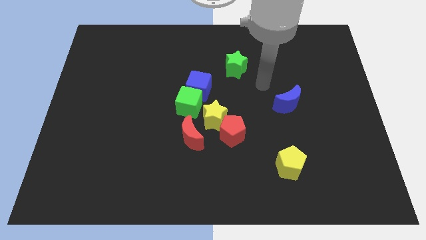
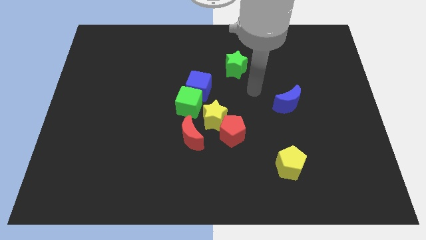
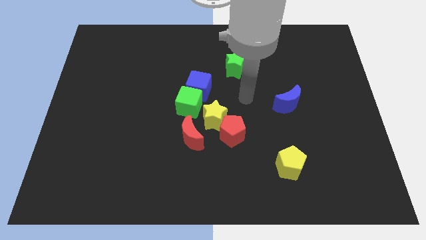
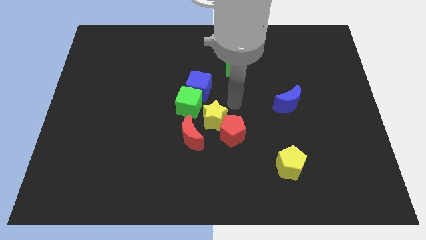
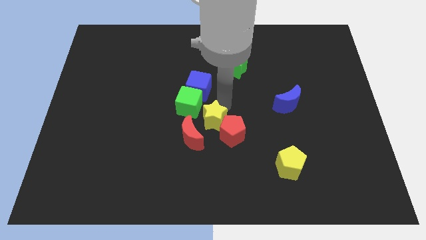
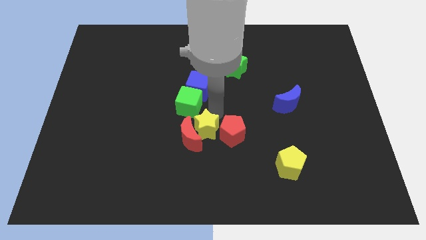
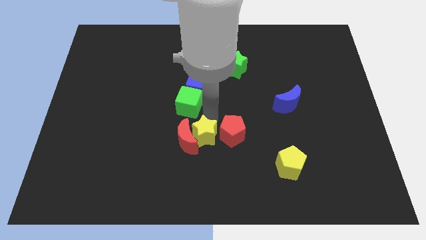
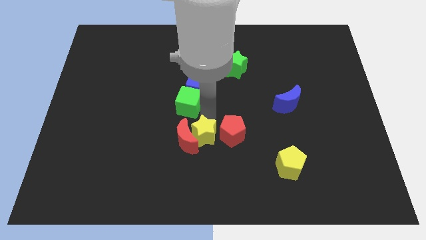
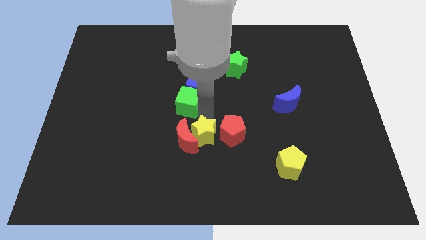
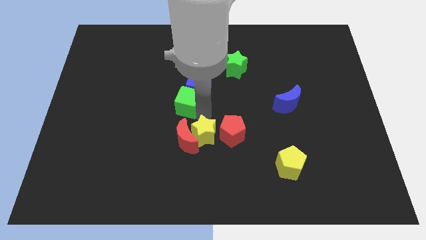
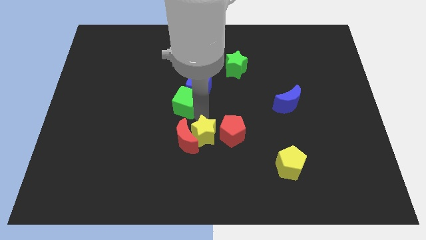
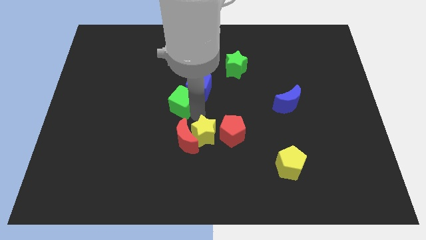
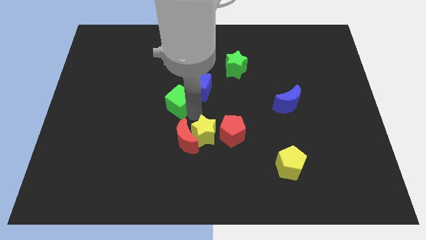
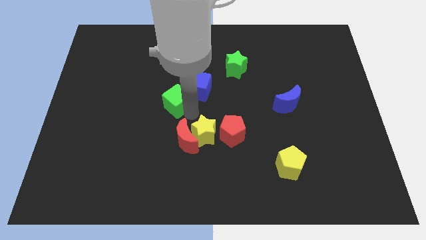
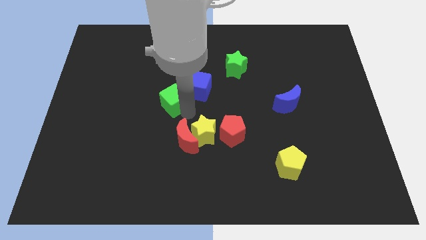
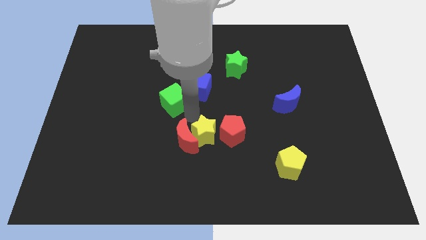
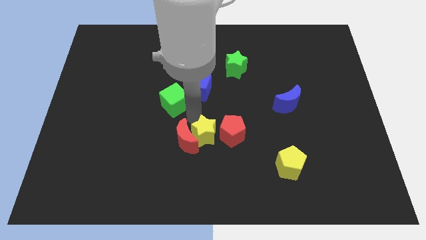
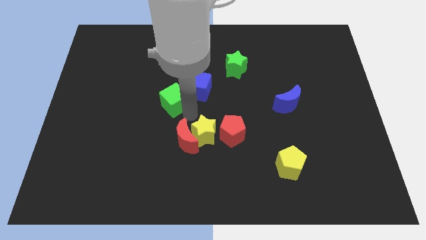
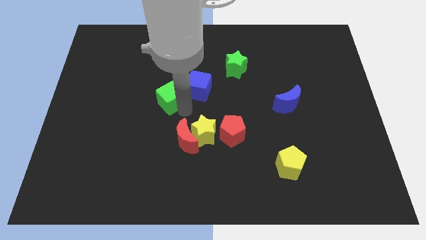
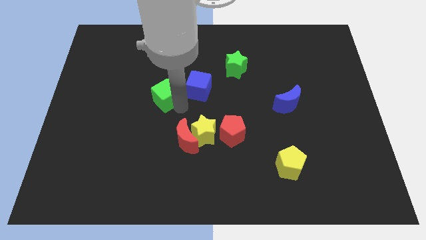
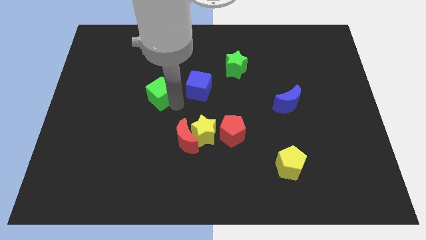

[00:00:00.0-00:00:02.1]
separate the green cube from the blue cube, yellow star, and red moon

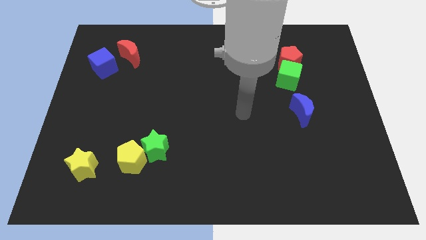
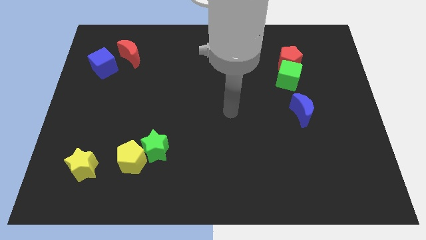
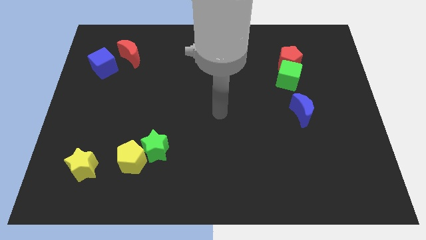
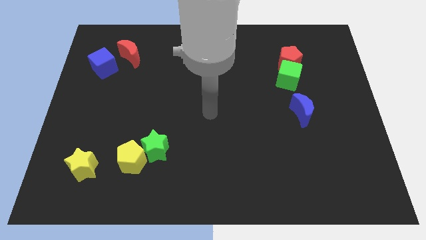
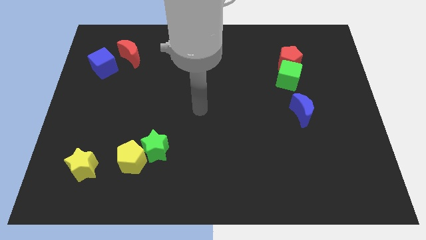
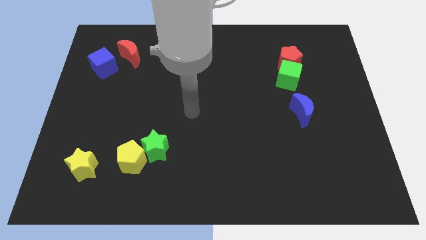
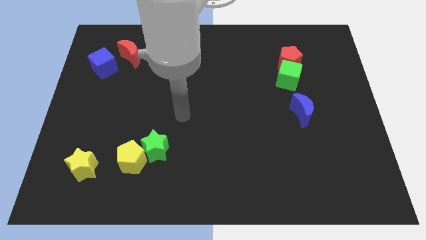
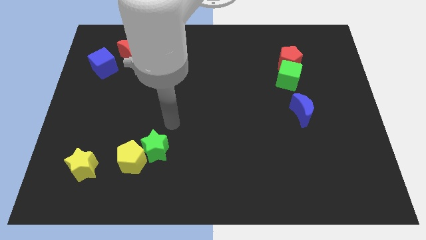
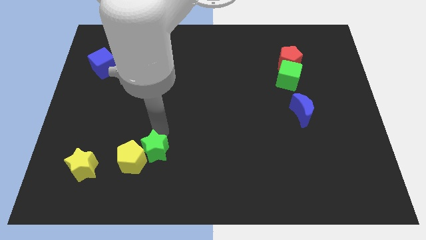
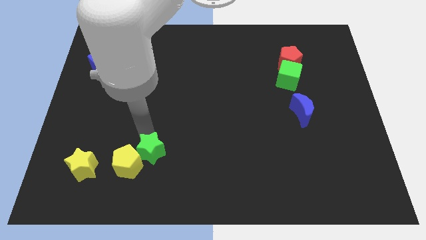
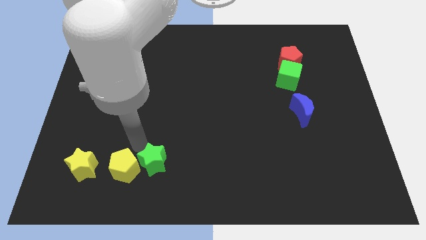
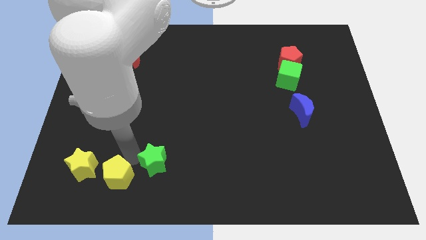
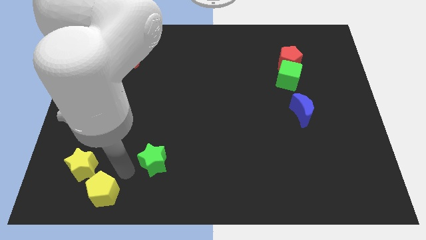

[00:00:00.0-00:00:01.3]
move the green star away from the yellow pentagon

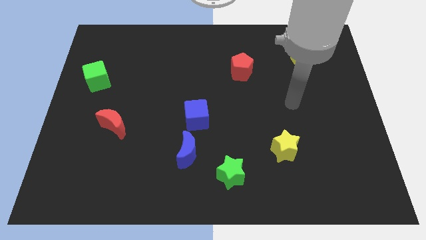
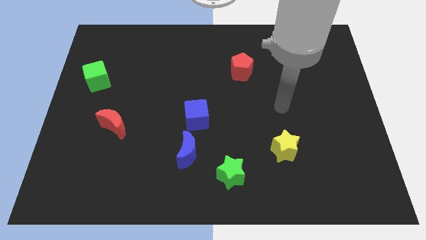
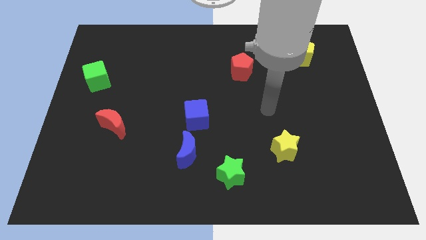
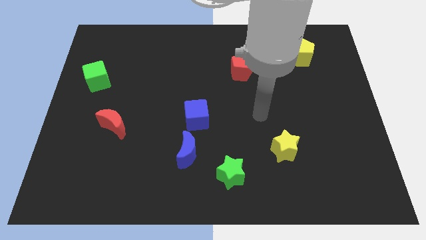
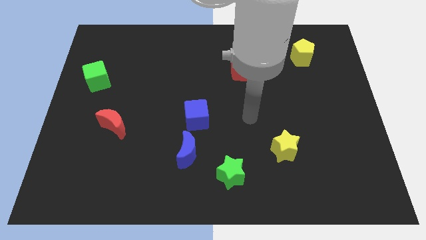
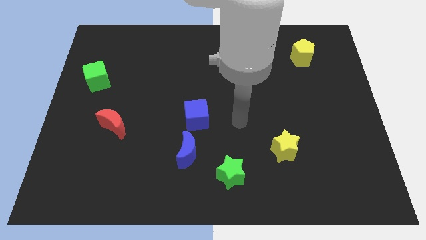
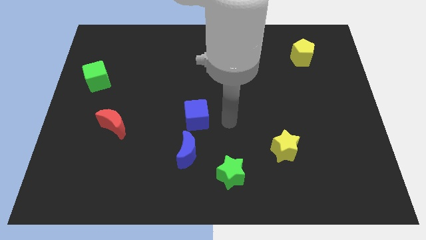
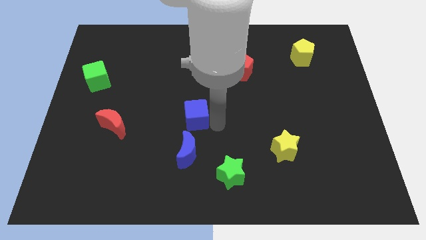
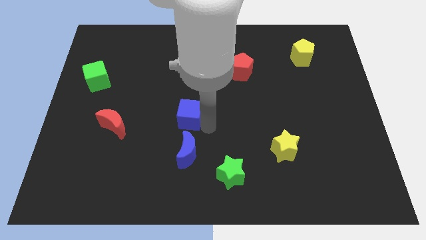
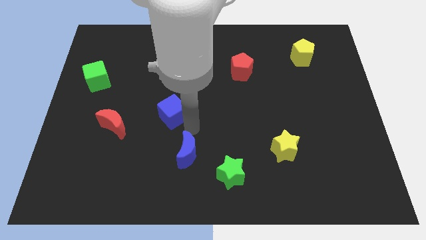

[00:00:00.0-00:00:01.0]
pull the blue moon apart from the blue cube

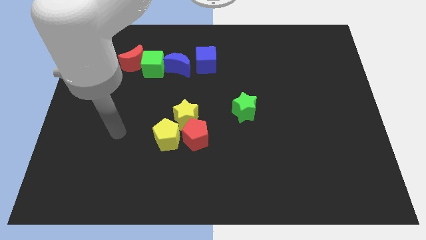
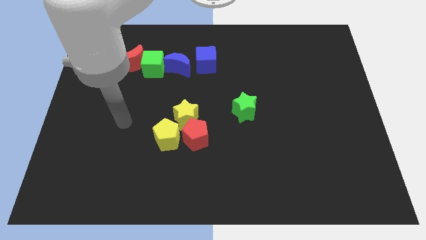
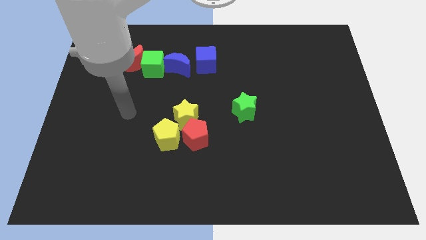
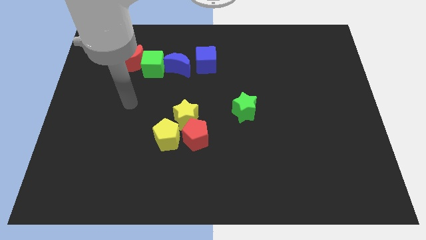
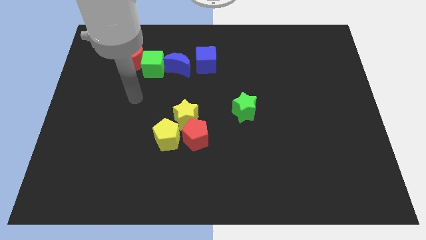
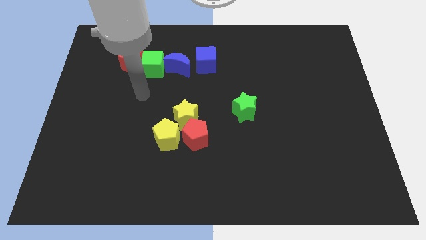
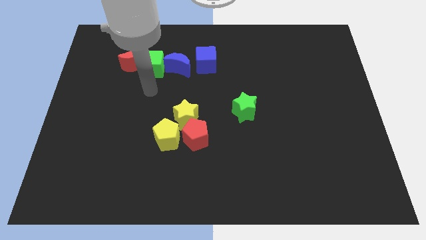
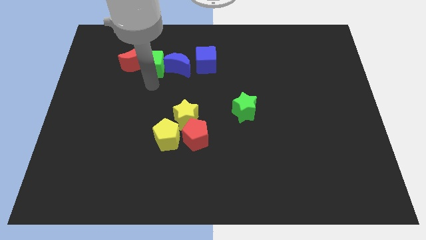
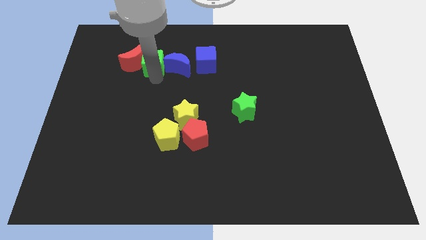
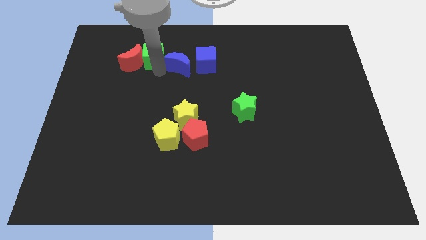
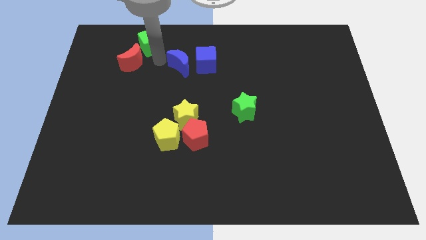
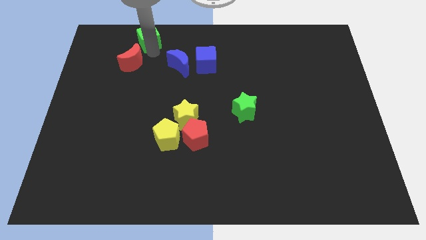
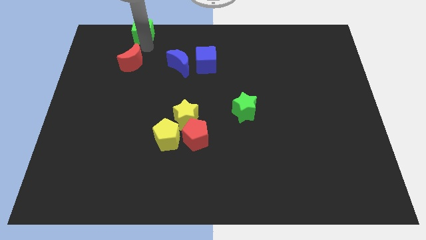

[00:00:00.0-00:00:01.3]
separate the red moon from the green cube

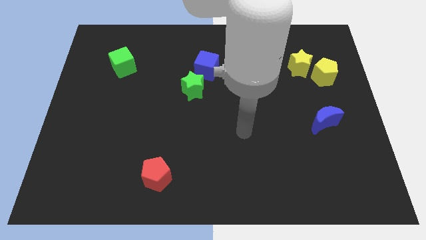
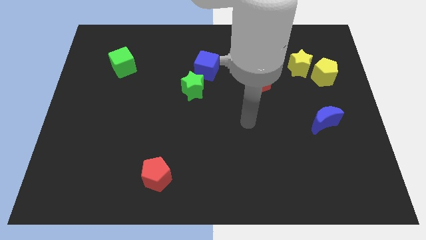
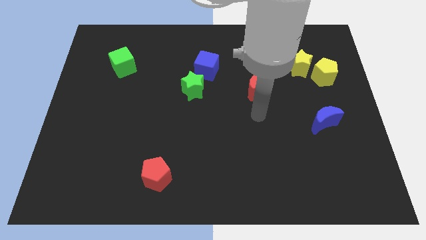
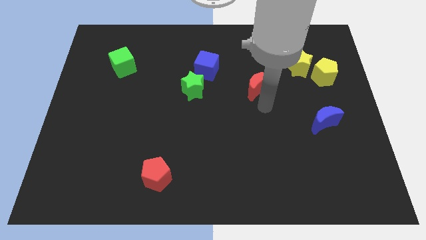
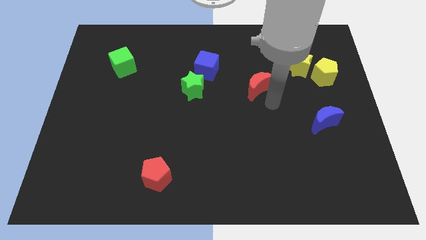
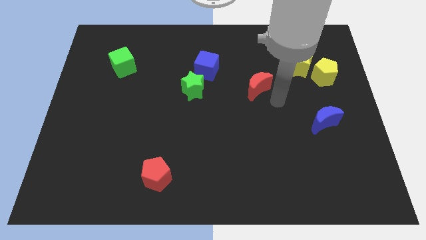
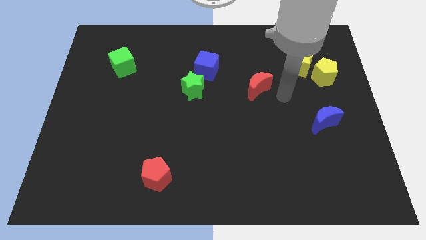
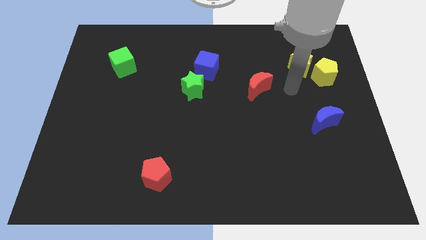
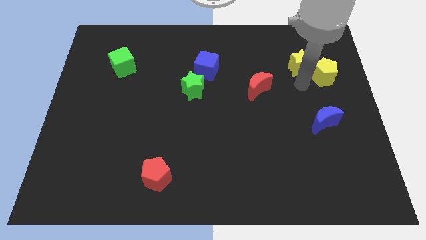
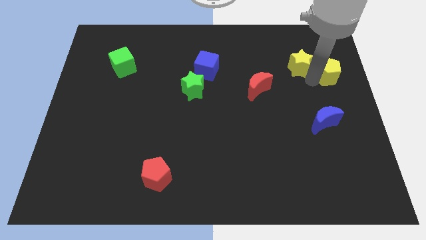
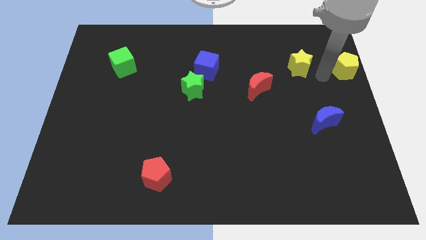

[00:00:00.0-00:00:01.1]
move the yellow star away from the yellow pentagon

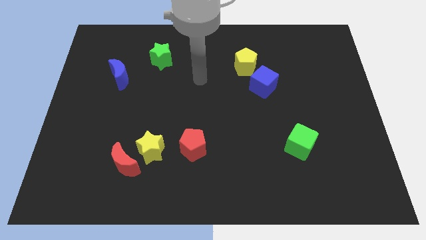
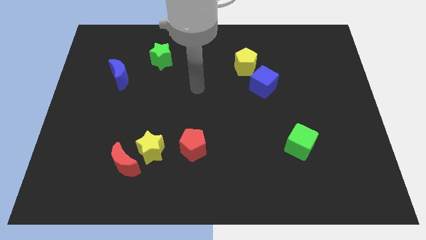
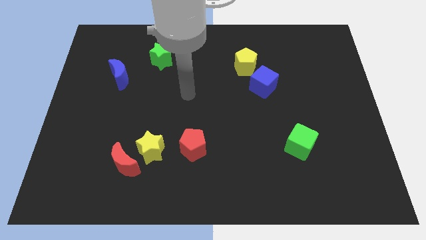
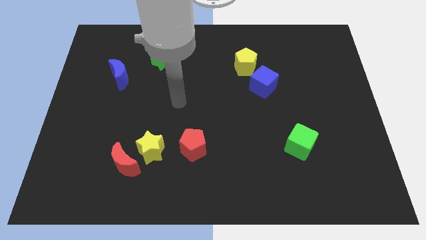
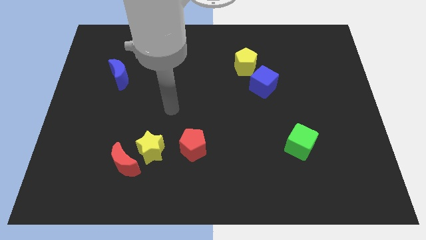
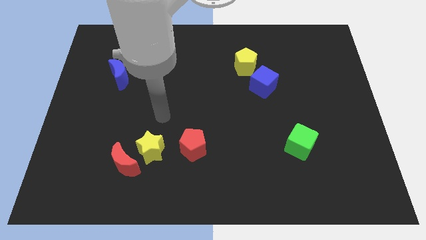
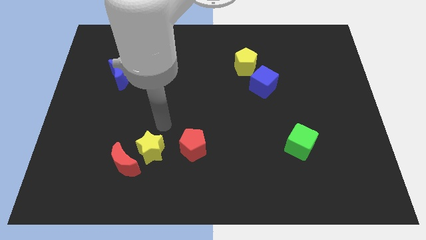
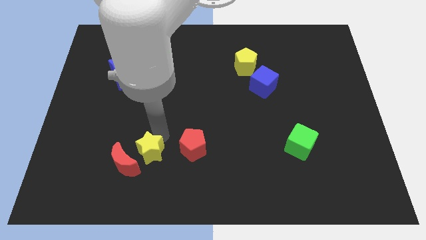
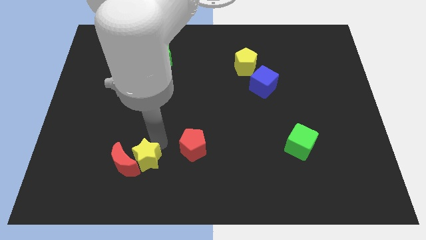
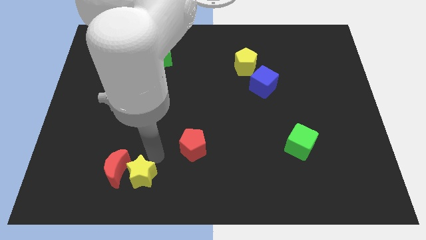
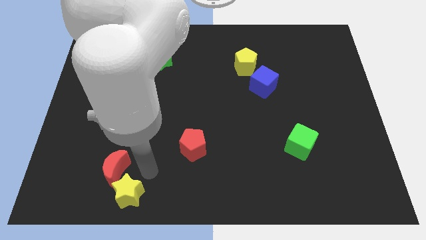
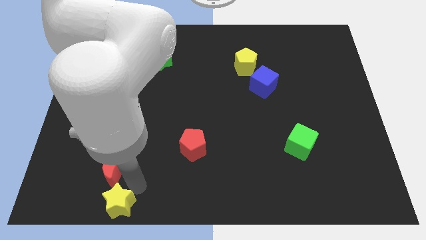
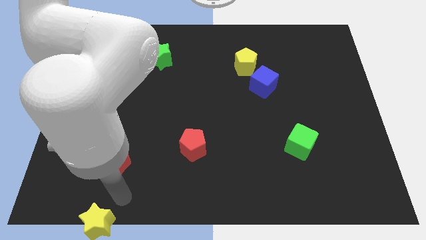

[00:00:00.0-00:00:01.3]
move the red moon away from the yellow star

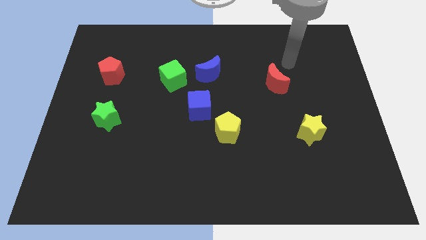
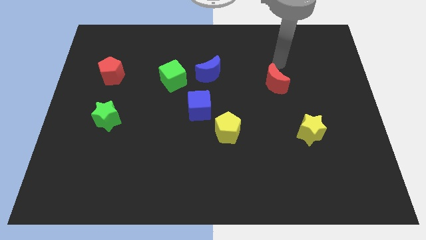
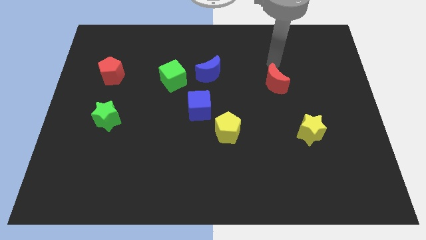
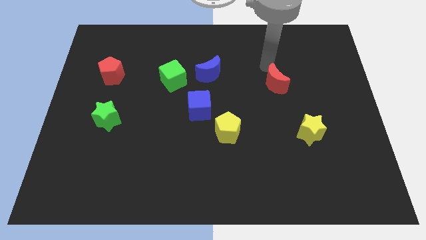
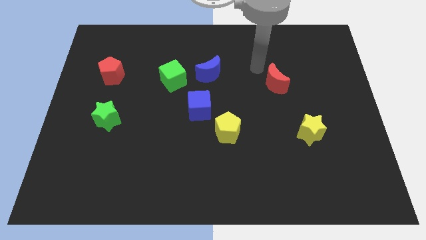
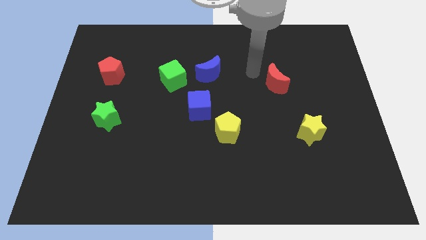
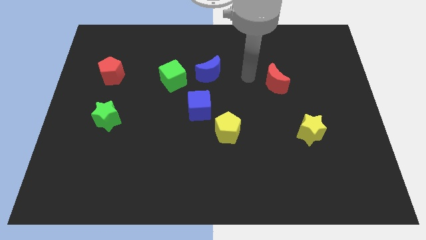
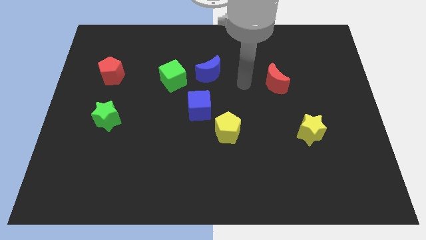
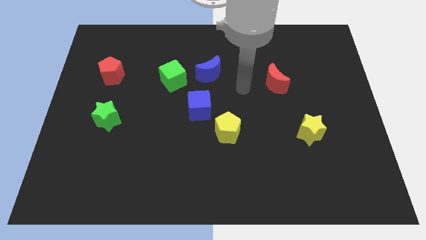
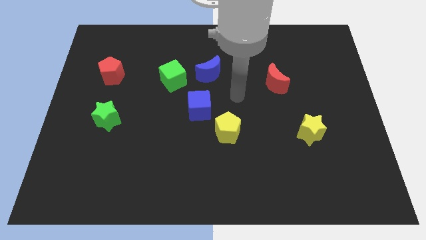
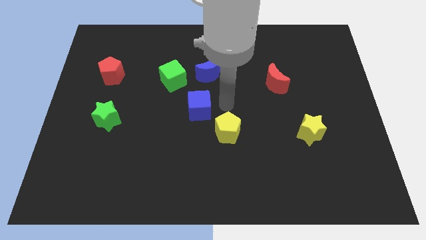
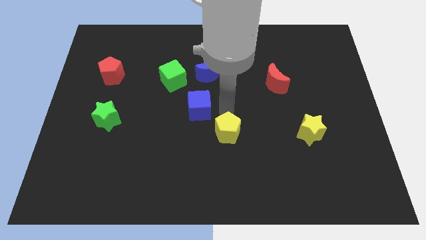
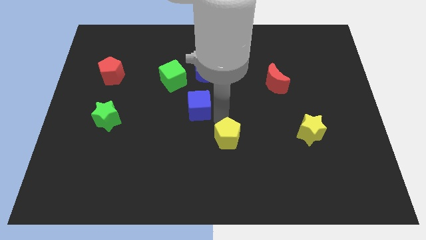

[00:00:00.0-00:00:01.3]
pull the blue cube apart from the yellow pentagon
